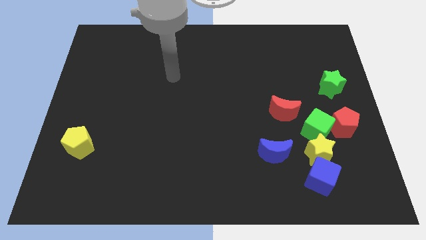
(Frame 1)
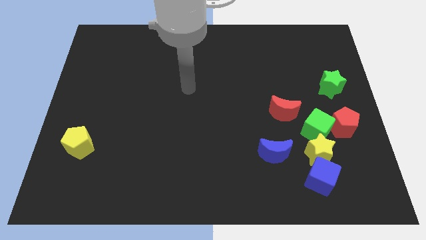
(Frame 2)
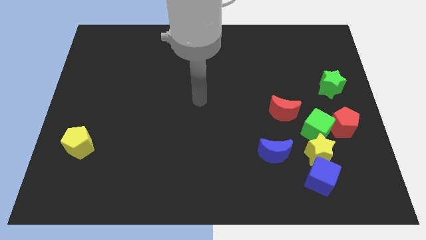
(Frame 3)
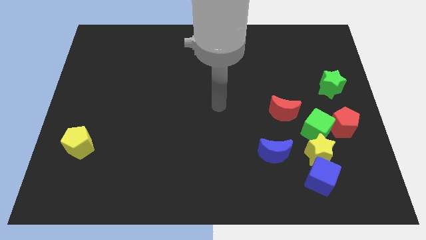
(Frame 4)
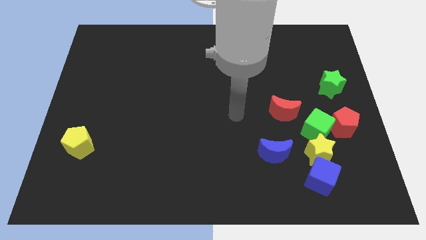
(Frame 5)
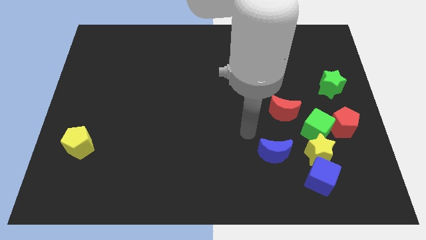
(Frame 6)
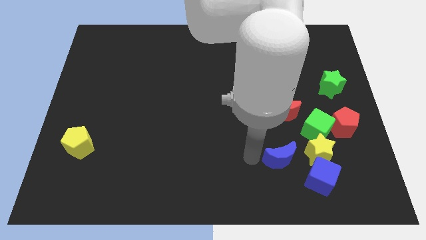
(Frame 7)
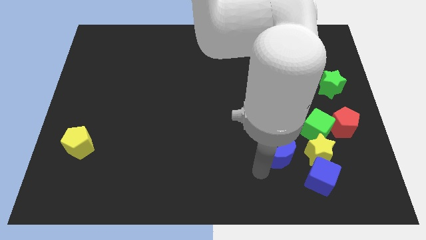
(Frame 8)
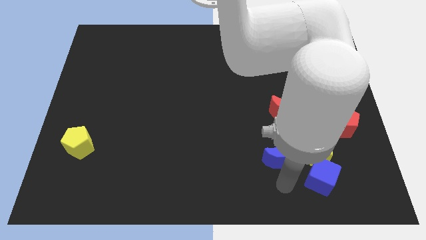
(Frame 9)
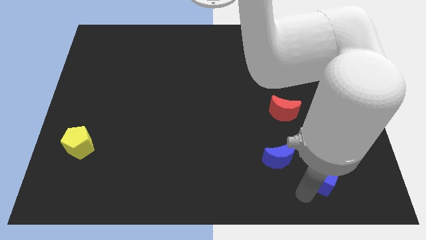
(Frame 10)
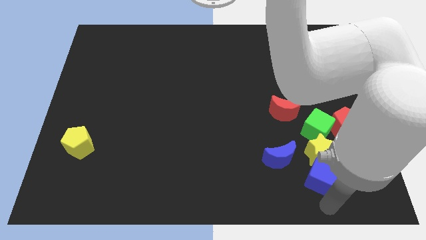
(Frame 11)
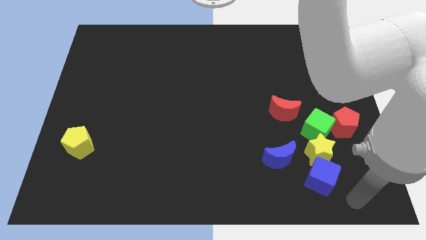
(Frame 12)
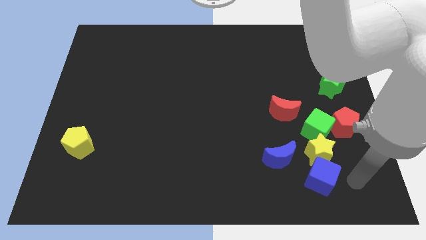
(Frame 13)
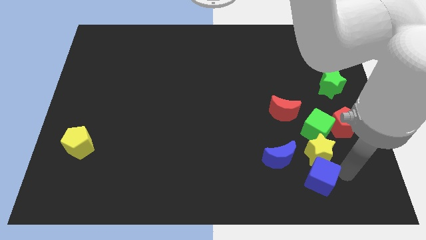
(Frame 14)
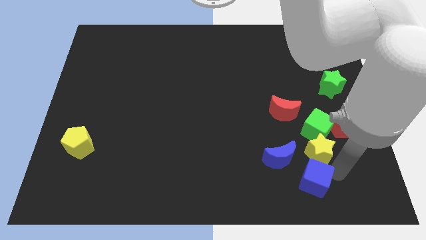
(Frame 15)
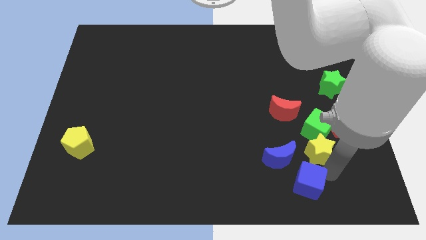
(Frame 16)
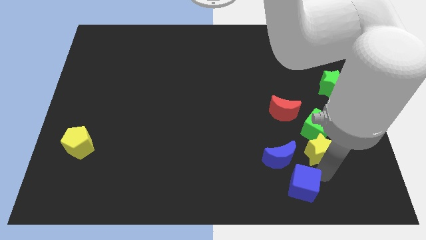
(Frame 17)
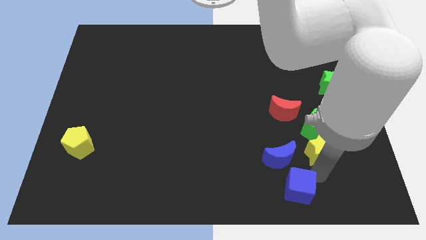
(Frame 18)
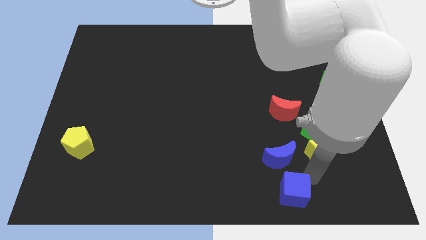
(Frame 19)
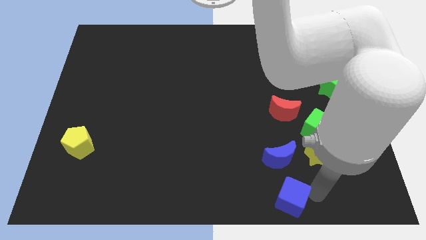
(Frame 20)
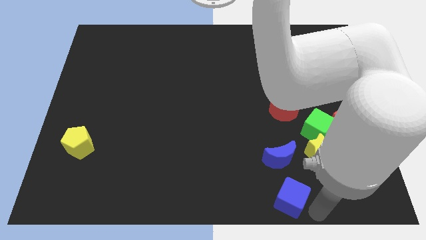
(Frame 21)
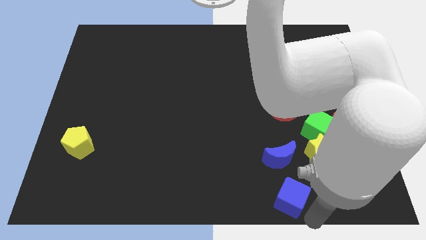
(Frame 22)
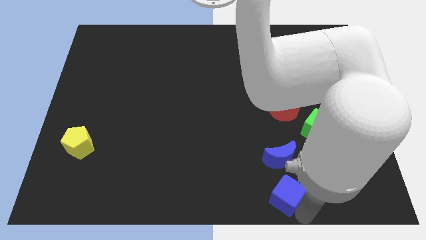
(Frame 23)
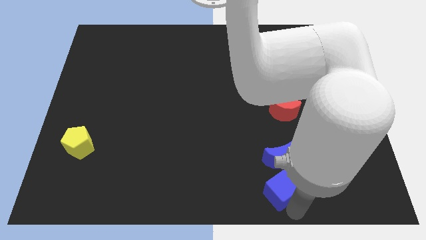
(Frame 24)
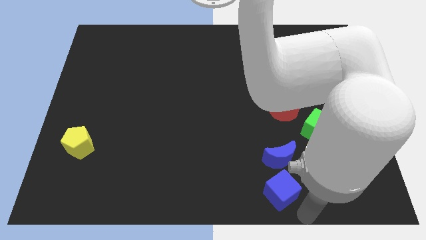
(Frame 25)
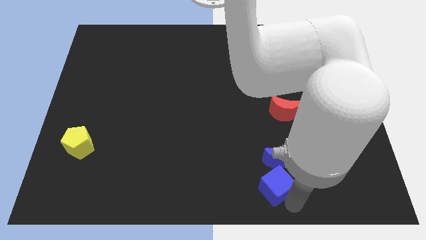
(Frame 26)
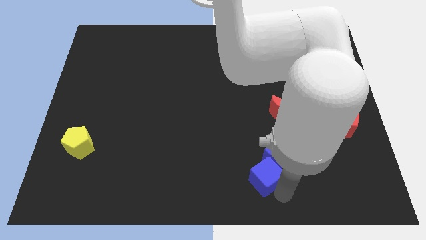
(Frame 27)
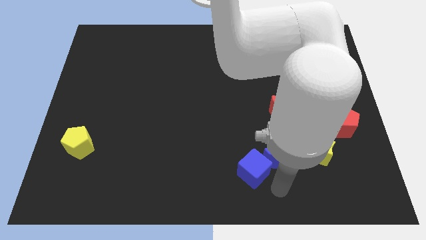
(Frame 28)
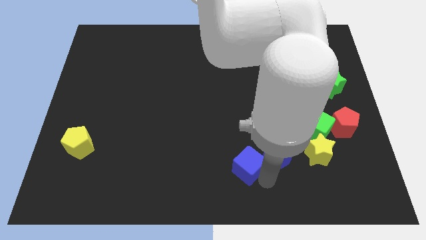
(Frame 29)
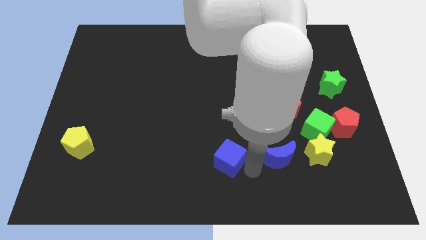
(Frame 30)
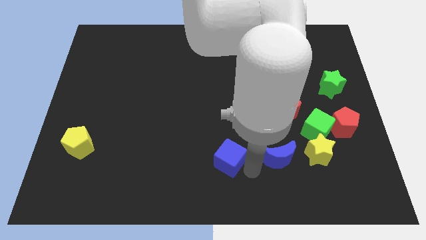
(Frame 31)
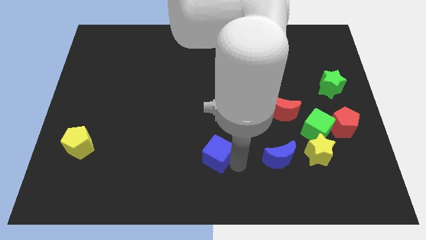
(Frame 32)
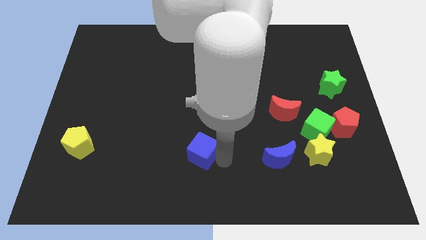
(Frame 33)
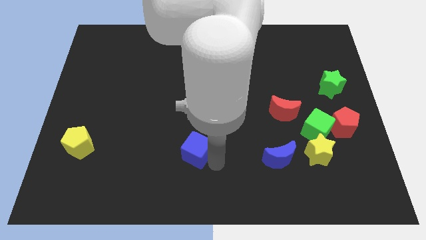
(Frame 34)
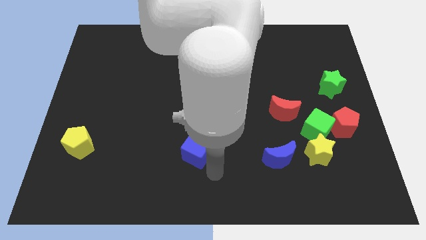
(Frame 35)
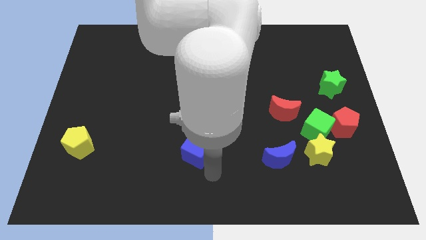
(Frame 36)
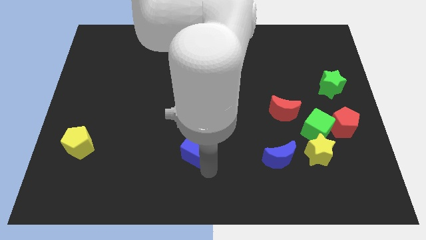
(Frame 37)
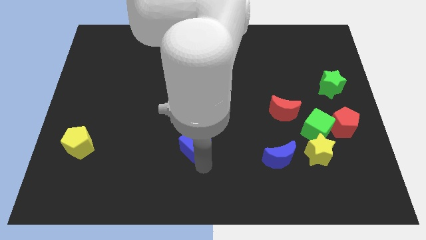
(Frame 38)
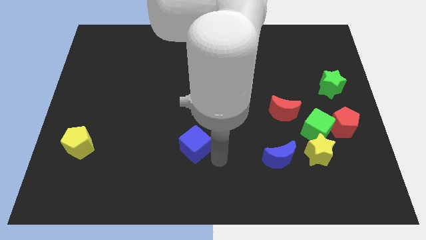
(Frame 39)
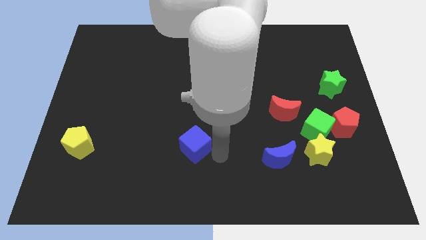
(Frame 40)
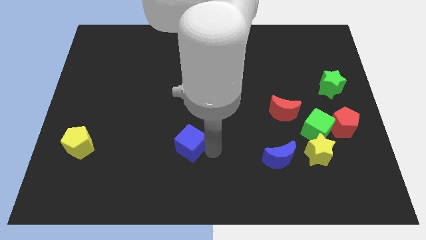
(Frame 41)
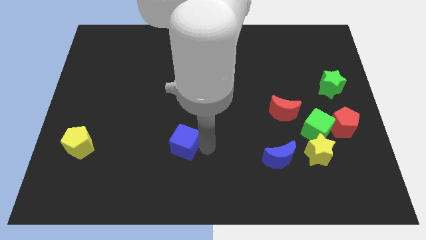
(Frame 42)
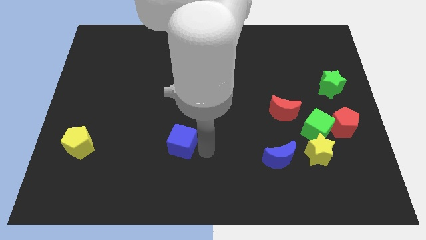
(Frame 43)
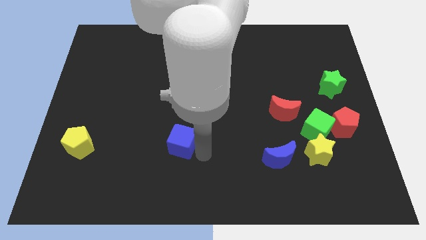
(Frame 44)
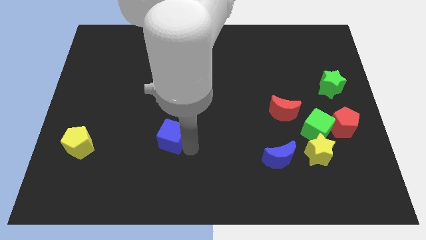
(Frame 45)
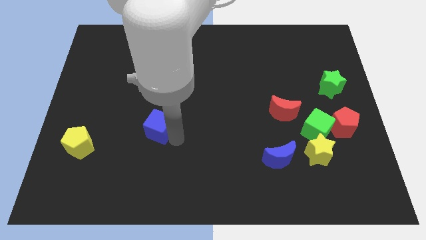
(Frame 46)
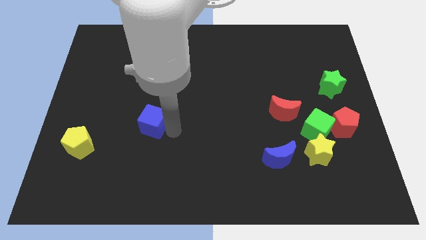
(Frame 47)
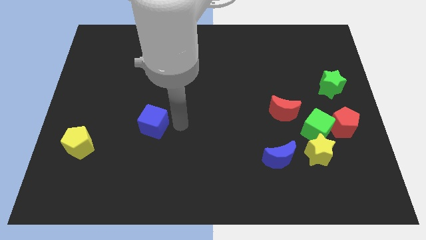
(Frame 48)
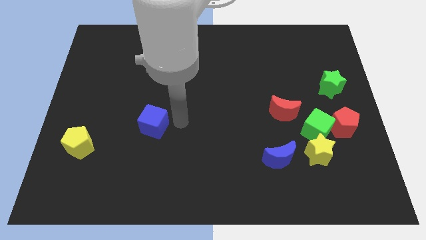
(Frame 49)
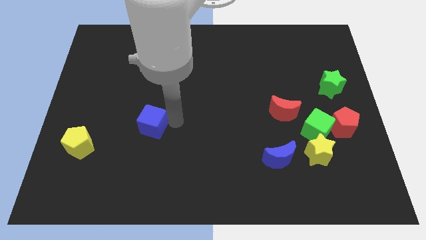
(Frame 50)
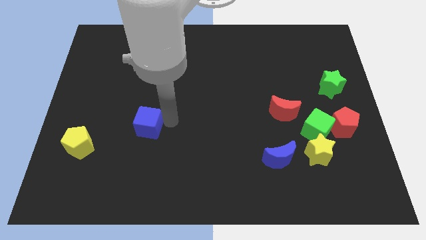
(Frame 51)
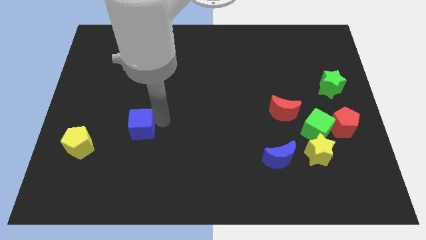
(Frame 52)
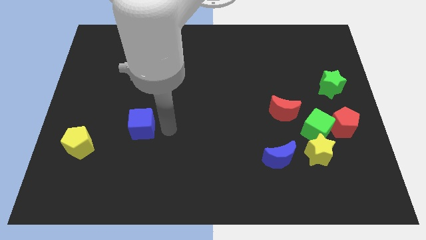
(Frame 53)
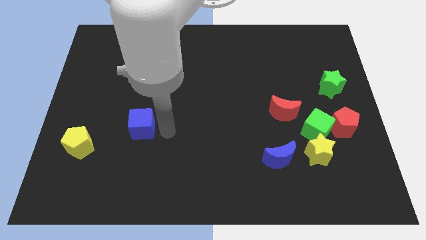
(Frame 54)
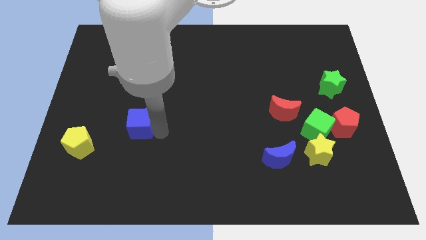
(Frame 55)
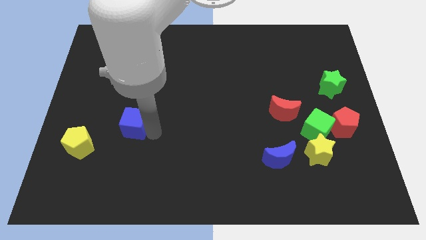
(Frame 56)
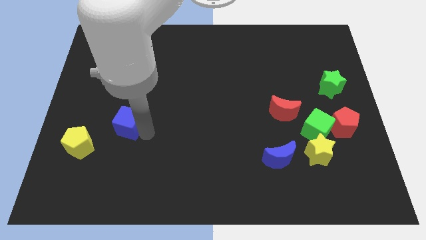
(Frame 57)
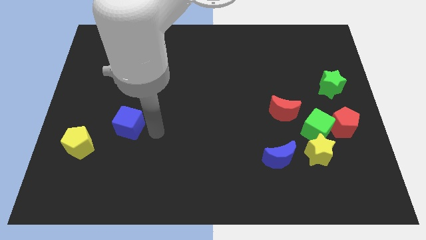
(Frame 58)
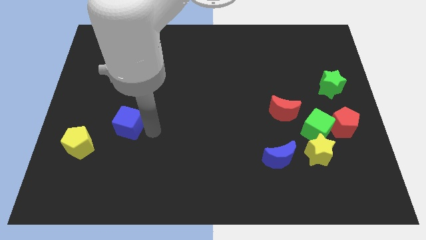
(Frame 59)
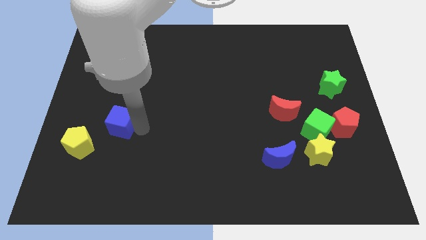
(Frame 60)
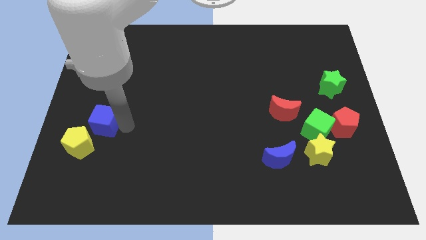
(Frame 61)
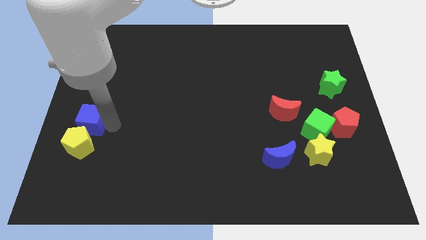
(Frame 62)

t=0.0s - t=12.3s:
push the blue cube to the left side of the board

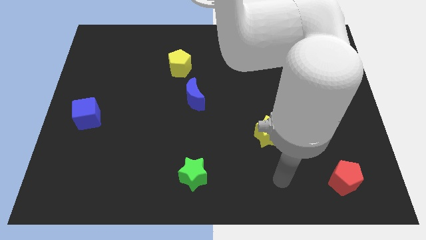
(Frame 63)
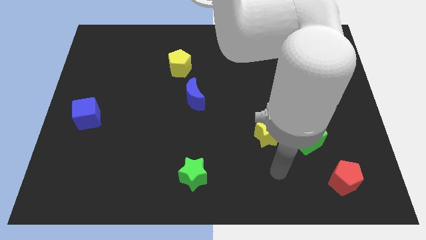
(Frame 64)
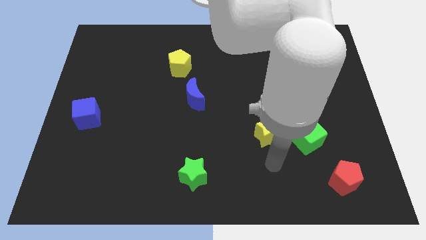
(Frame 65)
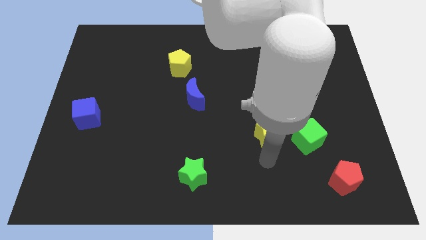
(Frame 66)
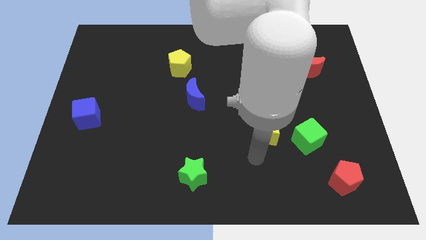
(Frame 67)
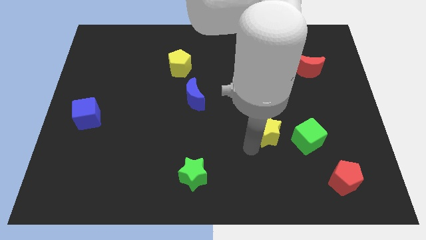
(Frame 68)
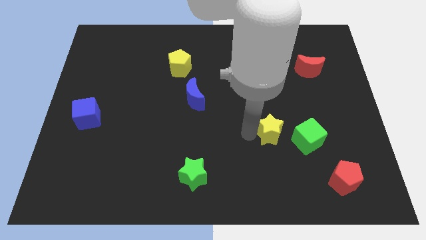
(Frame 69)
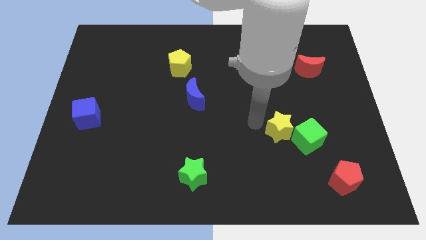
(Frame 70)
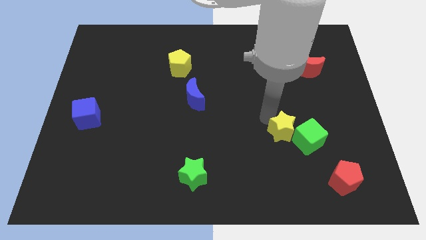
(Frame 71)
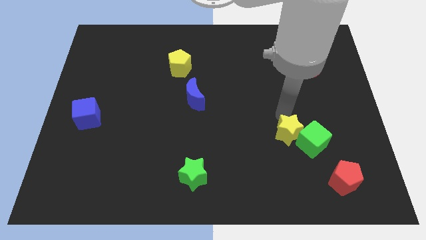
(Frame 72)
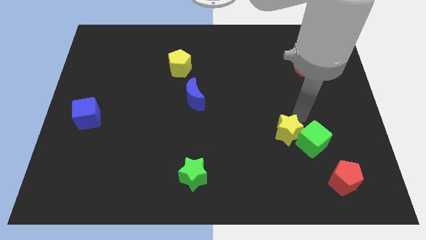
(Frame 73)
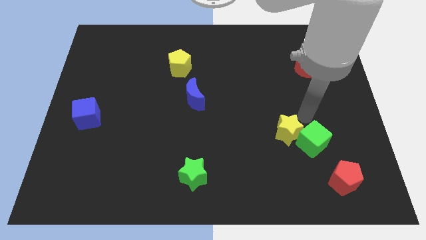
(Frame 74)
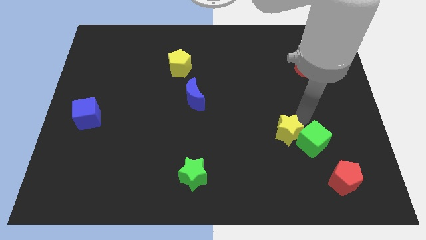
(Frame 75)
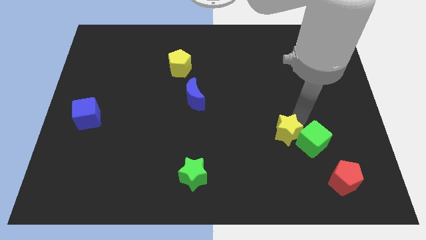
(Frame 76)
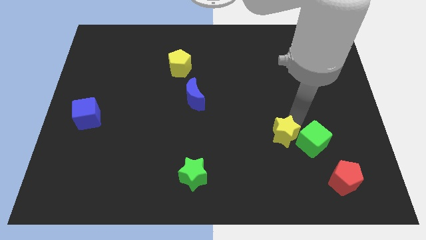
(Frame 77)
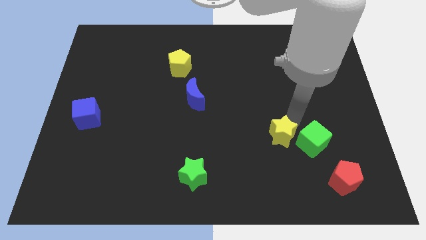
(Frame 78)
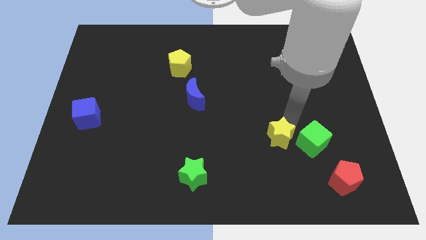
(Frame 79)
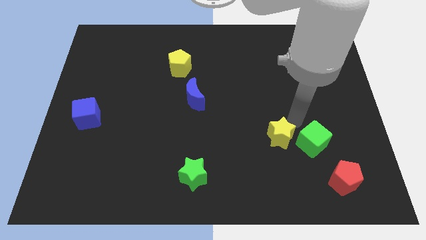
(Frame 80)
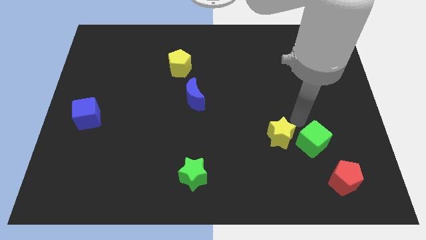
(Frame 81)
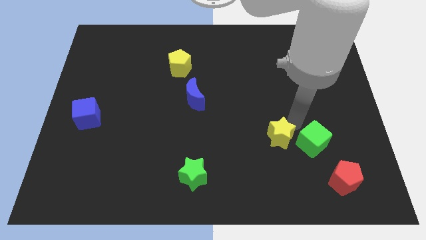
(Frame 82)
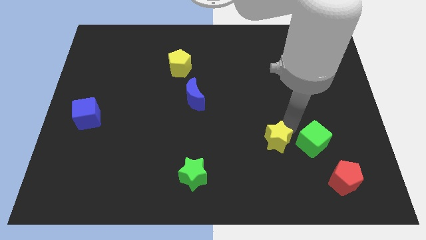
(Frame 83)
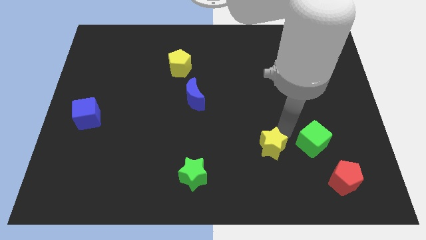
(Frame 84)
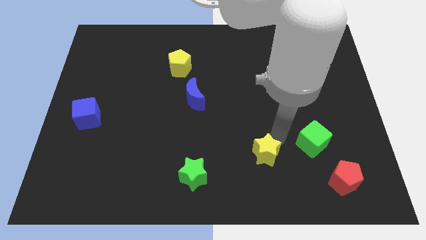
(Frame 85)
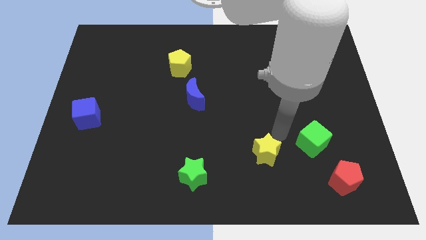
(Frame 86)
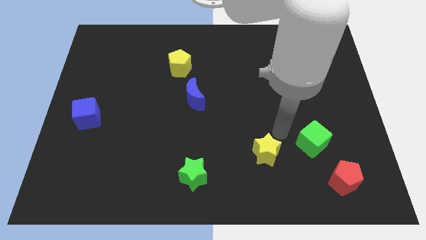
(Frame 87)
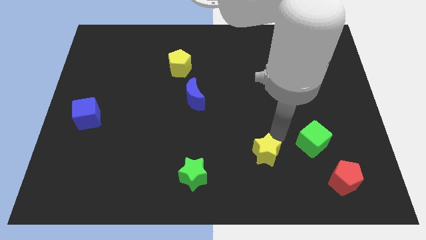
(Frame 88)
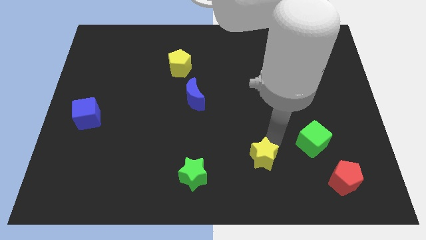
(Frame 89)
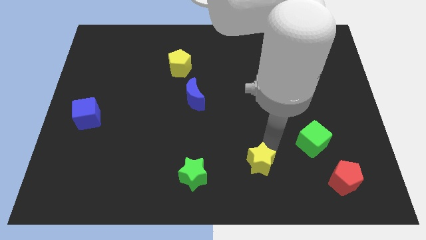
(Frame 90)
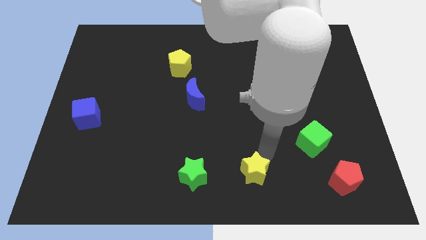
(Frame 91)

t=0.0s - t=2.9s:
push the yellow star to the bottom
